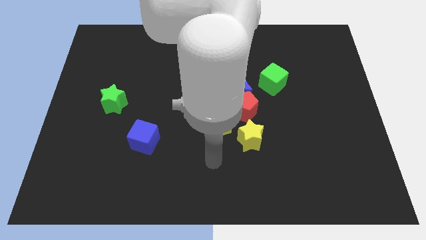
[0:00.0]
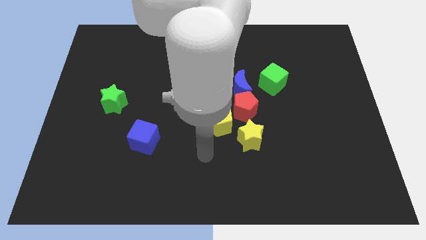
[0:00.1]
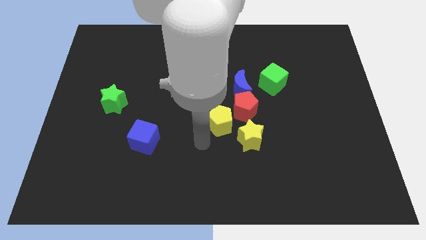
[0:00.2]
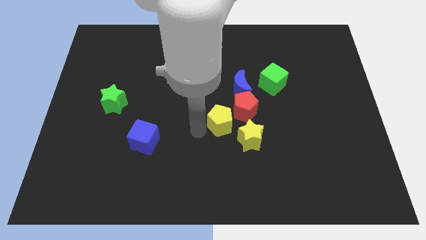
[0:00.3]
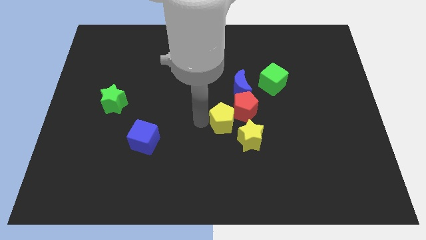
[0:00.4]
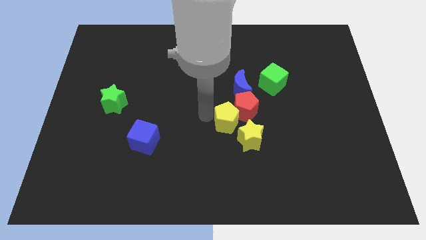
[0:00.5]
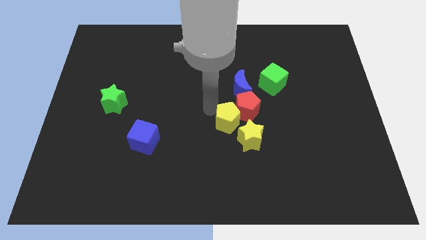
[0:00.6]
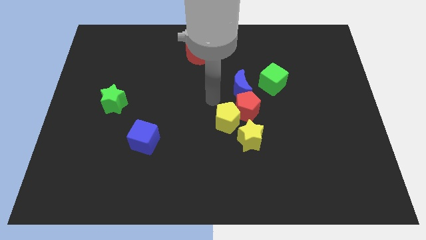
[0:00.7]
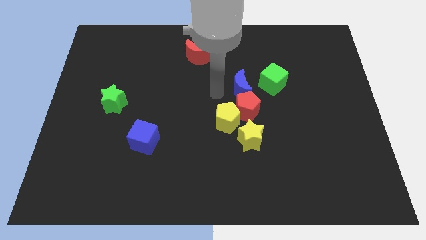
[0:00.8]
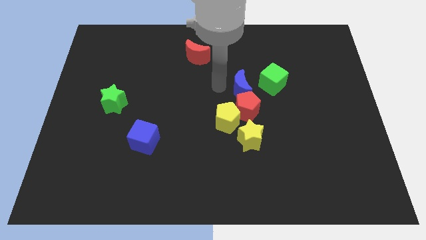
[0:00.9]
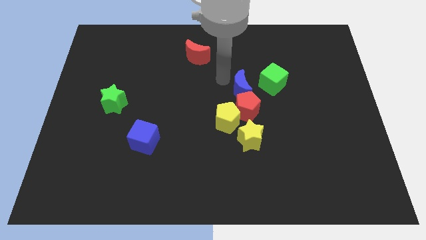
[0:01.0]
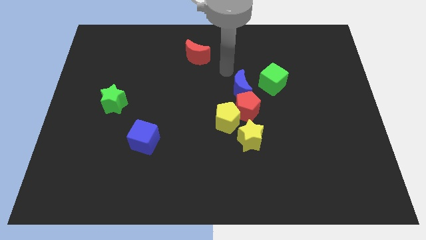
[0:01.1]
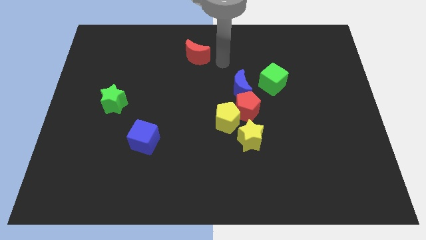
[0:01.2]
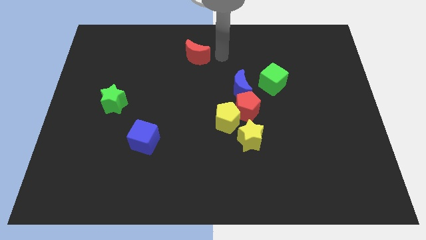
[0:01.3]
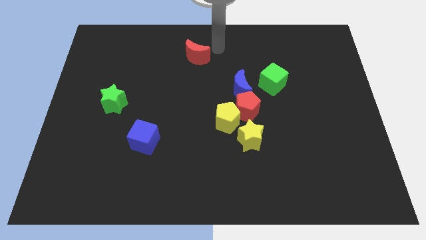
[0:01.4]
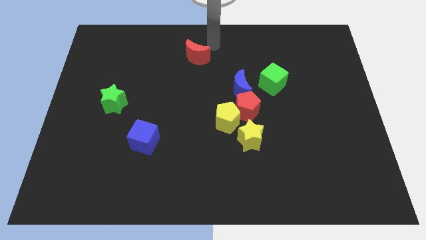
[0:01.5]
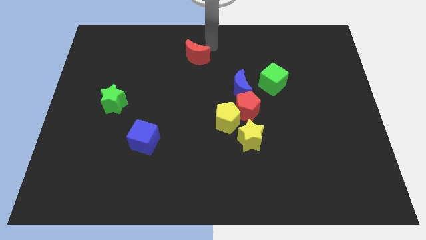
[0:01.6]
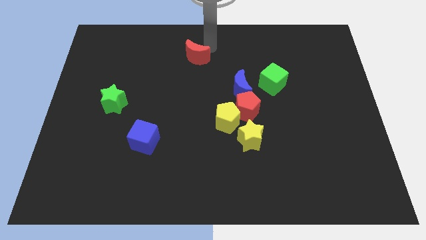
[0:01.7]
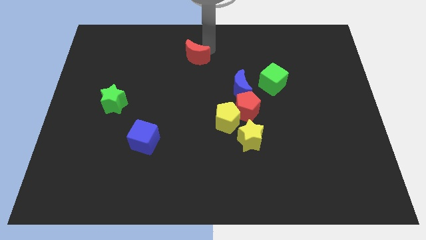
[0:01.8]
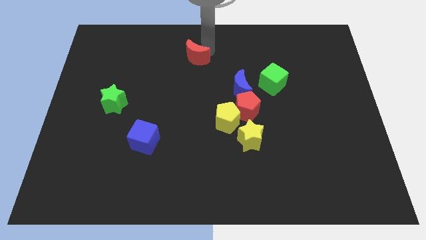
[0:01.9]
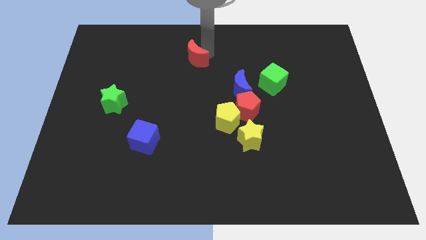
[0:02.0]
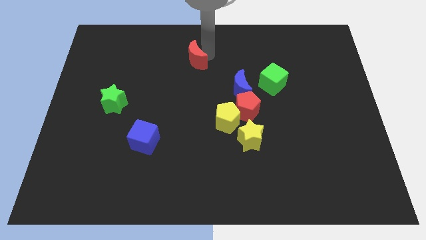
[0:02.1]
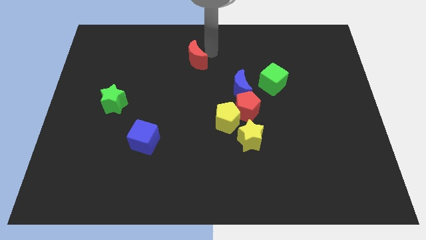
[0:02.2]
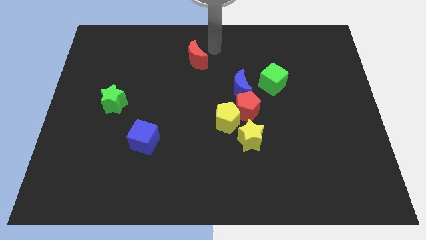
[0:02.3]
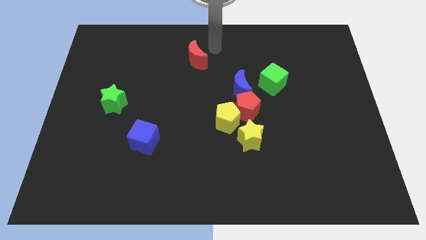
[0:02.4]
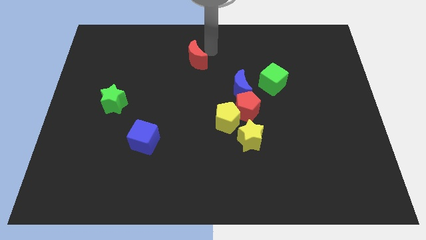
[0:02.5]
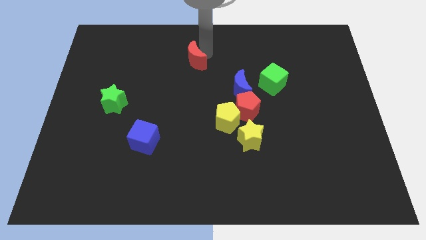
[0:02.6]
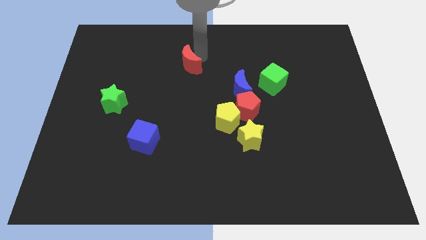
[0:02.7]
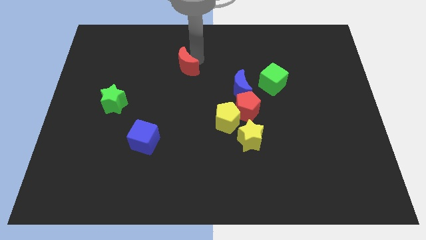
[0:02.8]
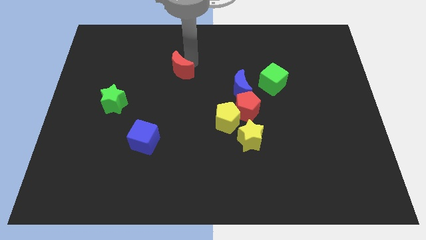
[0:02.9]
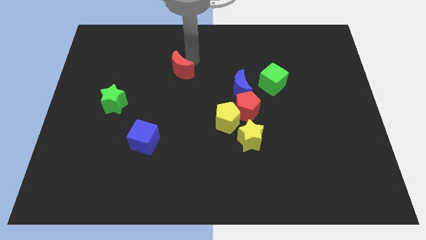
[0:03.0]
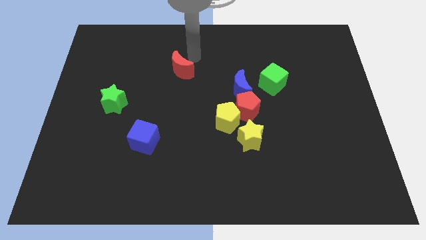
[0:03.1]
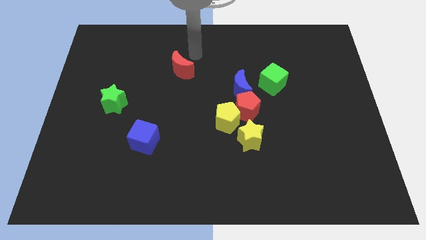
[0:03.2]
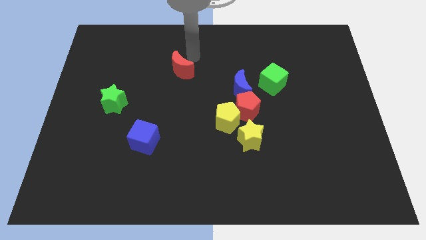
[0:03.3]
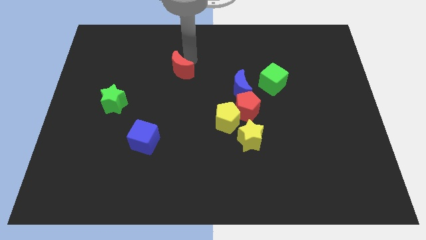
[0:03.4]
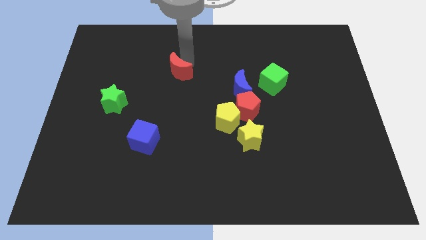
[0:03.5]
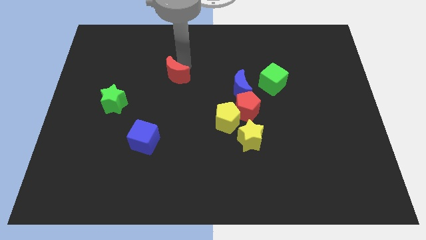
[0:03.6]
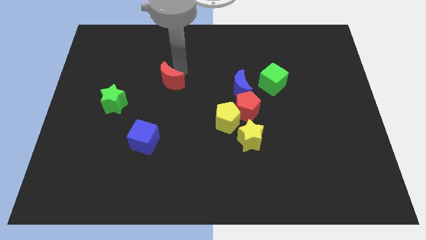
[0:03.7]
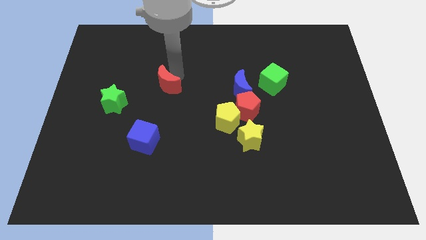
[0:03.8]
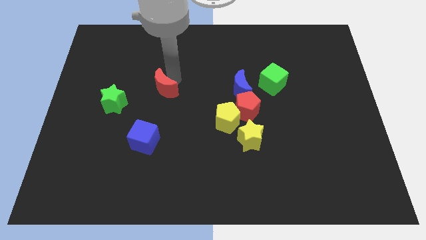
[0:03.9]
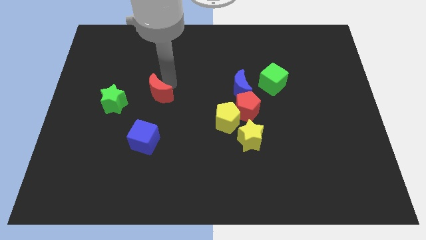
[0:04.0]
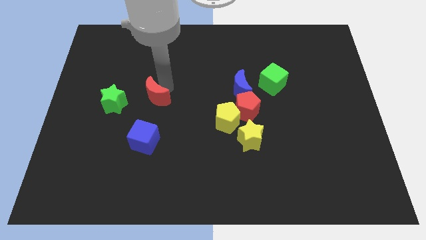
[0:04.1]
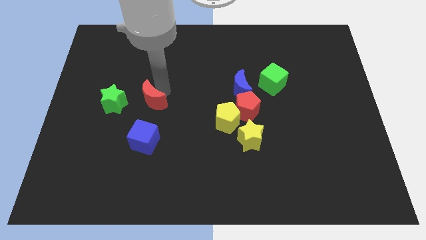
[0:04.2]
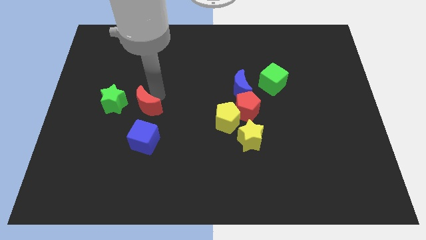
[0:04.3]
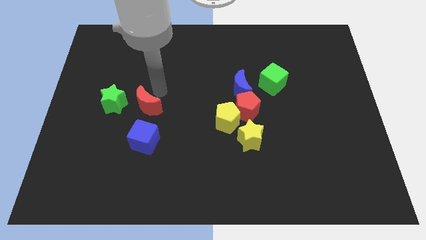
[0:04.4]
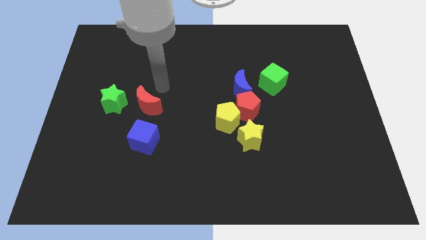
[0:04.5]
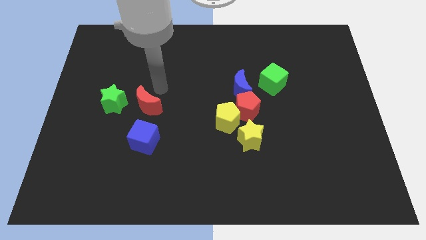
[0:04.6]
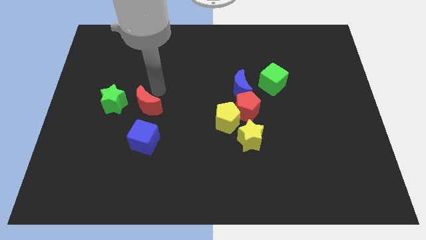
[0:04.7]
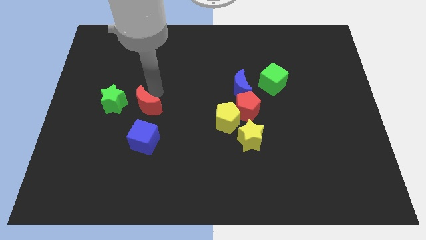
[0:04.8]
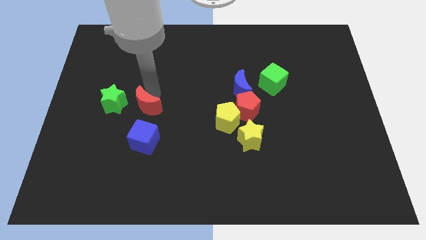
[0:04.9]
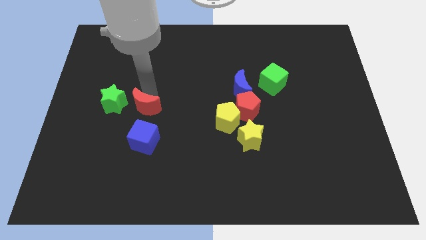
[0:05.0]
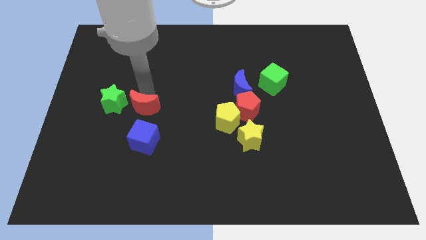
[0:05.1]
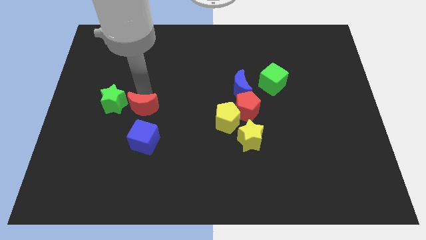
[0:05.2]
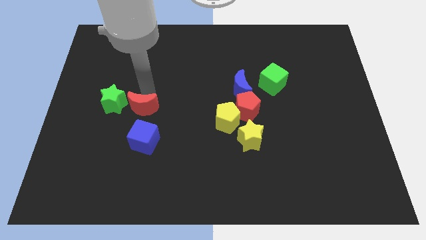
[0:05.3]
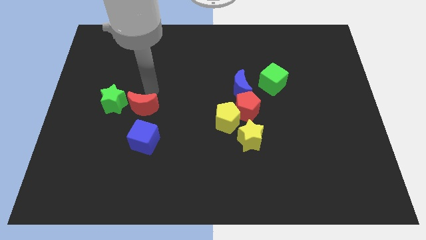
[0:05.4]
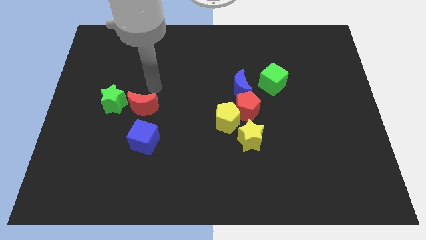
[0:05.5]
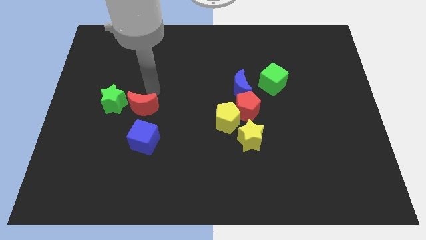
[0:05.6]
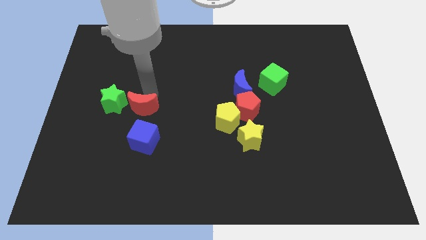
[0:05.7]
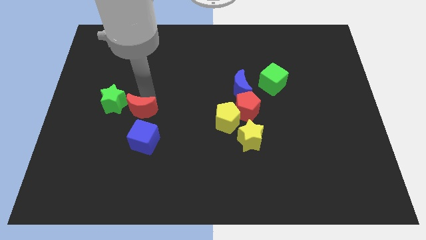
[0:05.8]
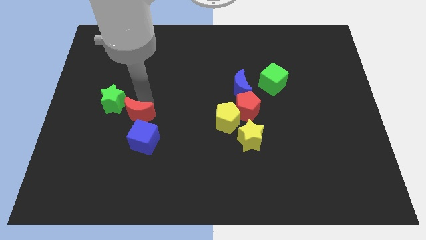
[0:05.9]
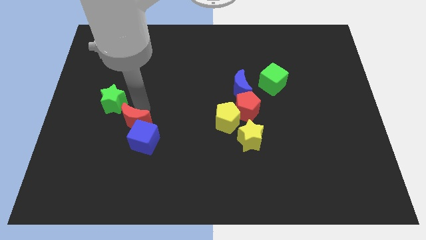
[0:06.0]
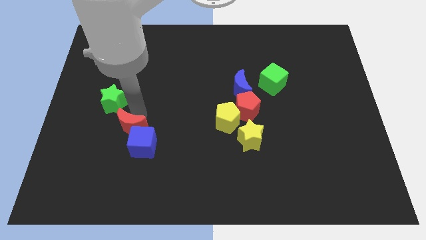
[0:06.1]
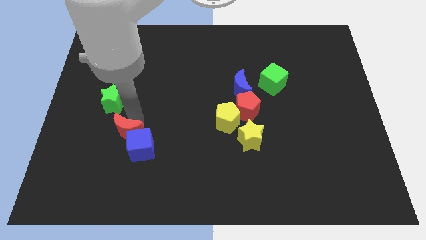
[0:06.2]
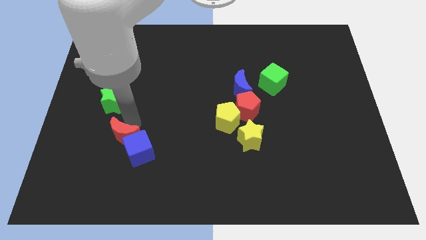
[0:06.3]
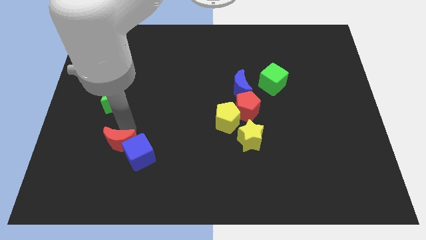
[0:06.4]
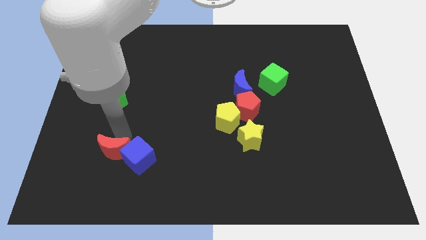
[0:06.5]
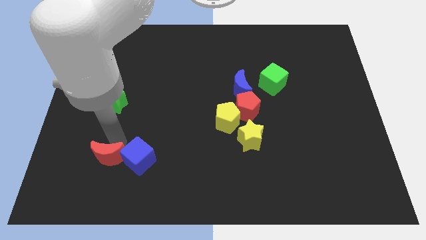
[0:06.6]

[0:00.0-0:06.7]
put the red moon diagonally down and to the left of the blue cube

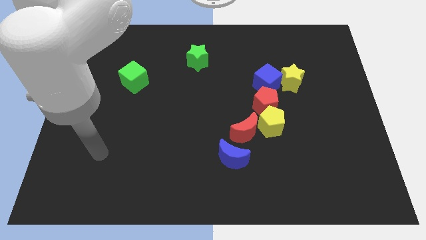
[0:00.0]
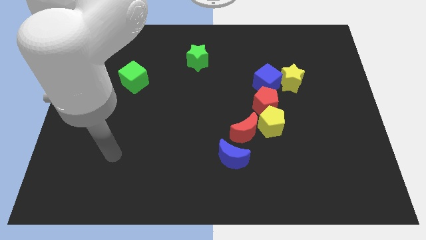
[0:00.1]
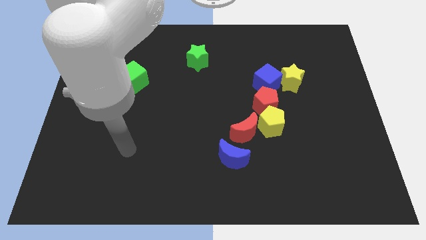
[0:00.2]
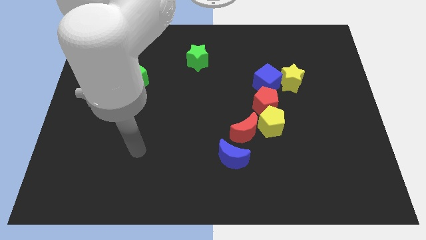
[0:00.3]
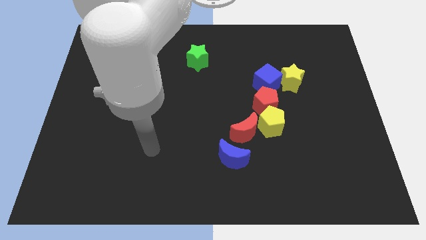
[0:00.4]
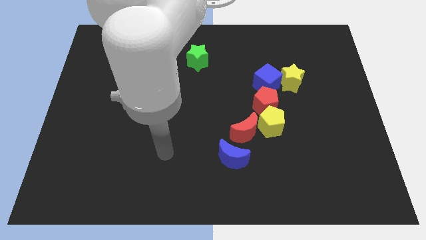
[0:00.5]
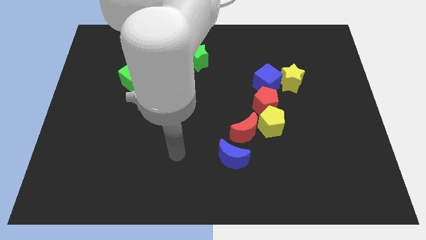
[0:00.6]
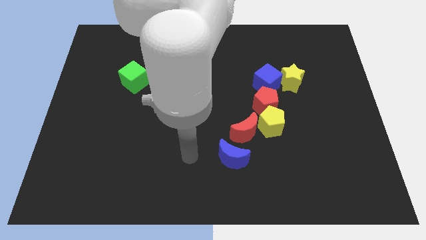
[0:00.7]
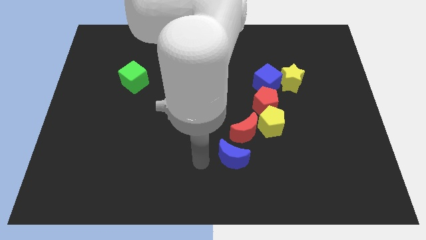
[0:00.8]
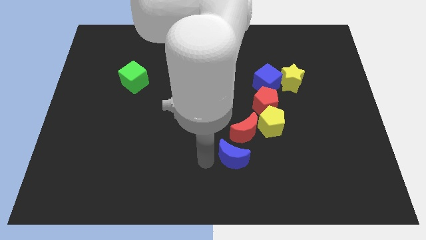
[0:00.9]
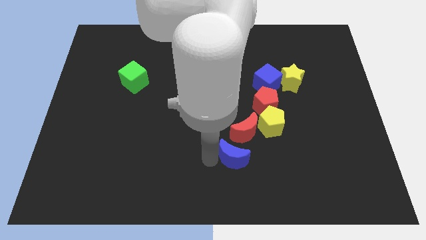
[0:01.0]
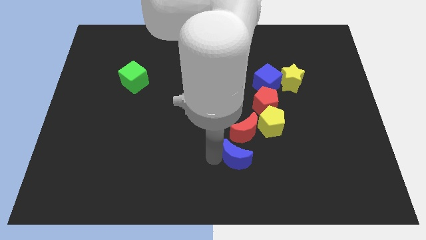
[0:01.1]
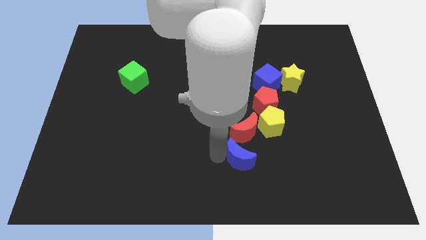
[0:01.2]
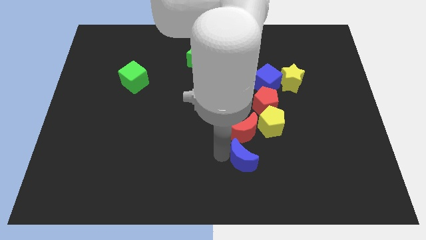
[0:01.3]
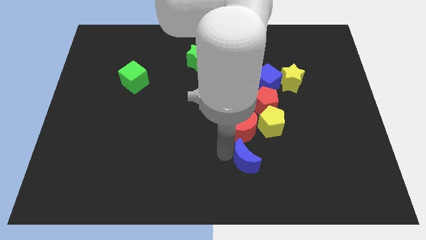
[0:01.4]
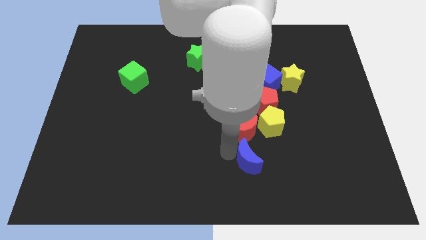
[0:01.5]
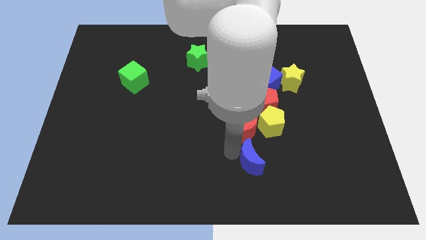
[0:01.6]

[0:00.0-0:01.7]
slide the blue moon to the bottom right side of the red moon
